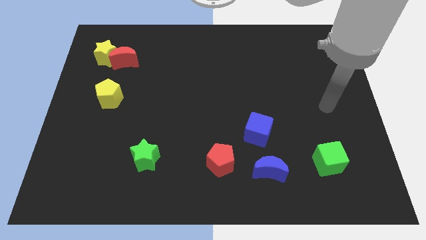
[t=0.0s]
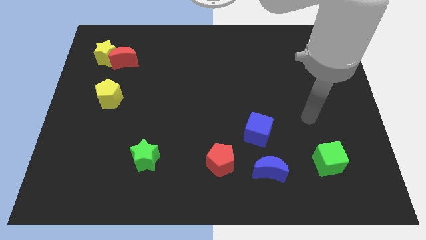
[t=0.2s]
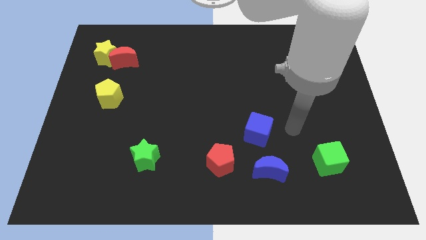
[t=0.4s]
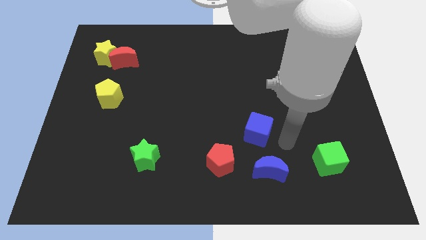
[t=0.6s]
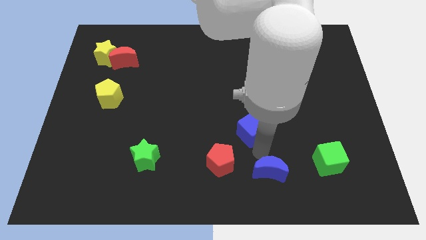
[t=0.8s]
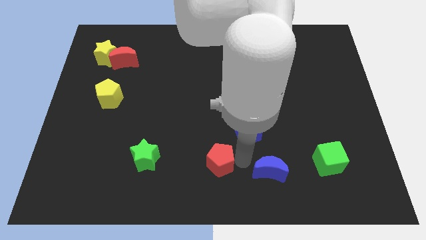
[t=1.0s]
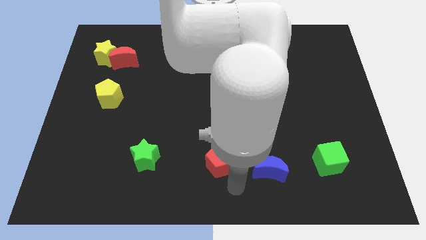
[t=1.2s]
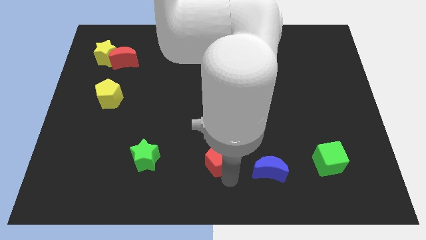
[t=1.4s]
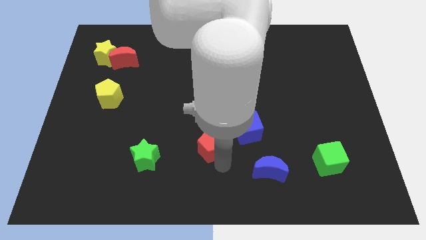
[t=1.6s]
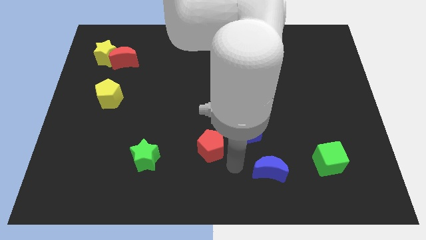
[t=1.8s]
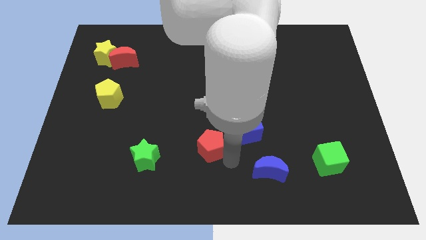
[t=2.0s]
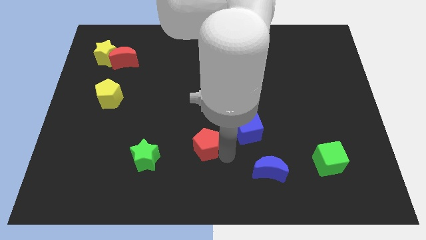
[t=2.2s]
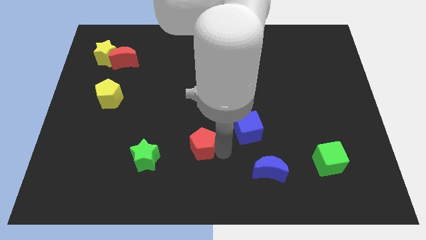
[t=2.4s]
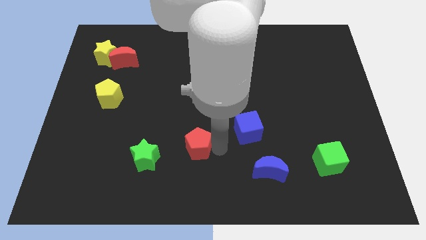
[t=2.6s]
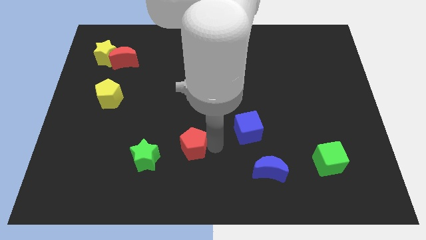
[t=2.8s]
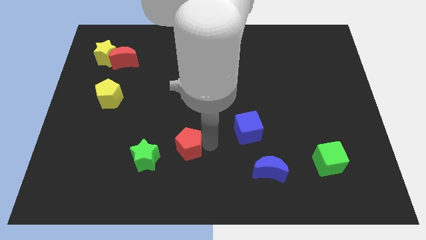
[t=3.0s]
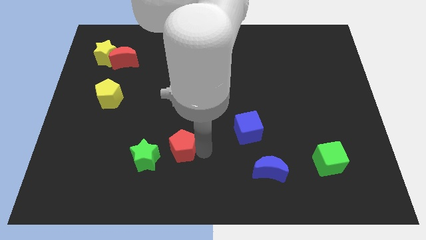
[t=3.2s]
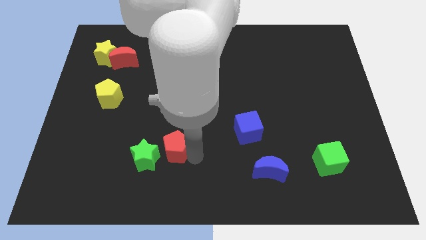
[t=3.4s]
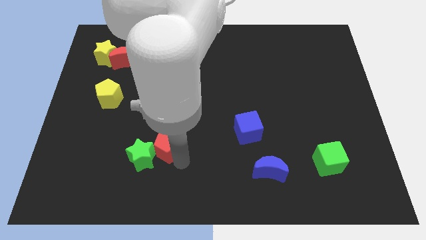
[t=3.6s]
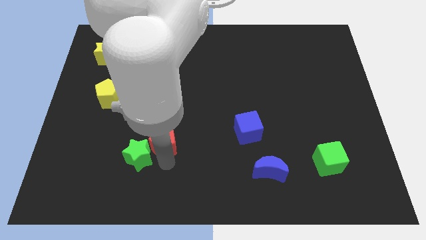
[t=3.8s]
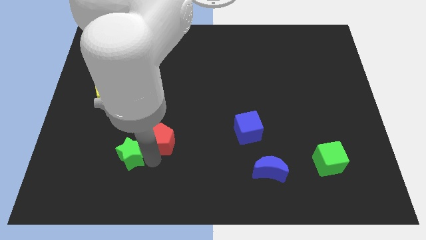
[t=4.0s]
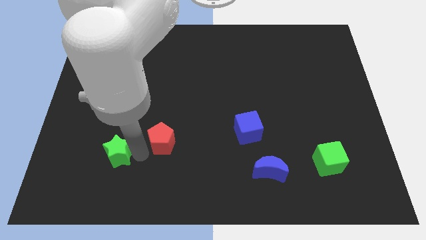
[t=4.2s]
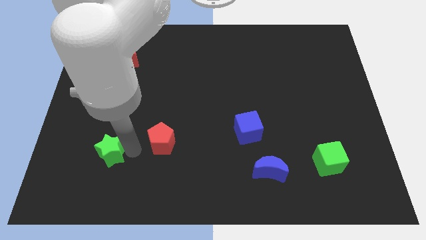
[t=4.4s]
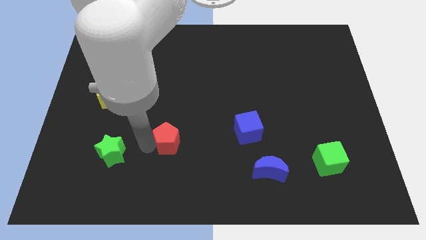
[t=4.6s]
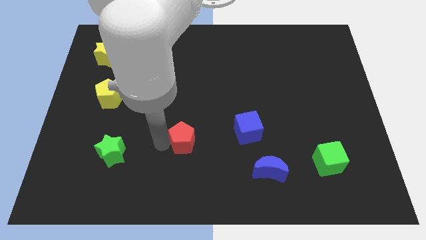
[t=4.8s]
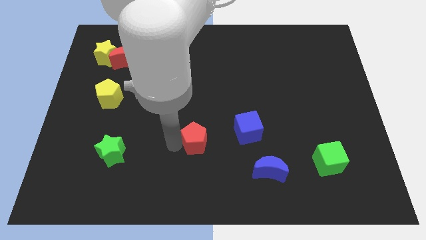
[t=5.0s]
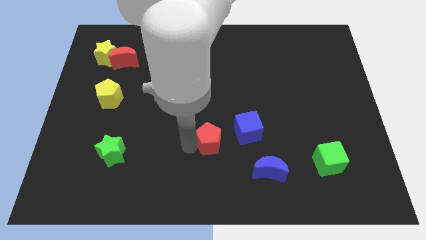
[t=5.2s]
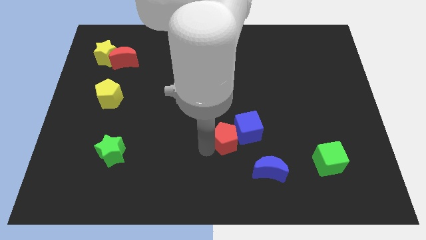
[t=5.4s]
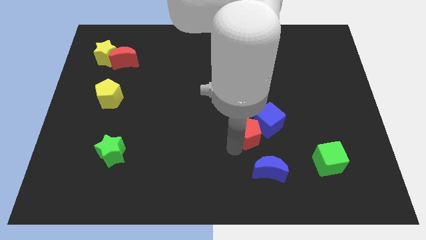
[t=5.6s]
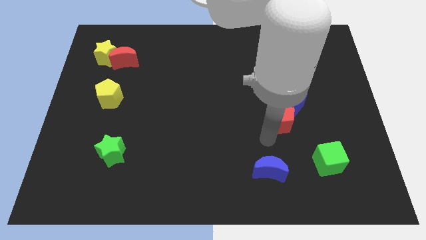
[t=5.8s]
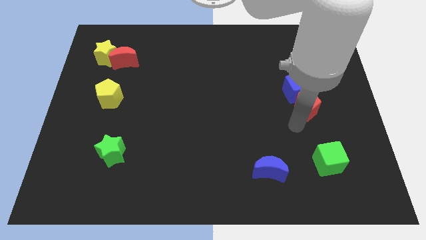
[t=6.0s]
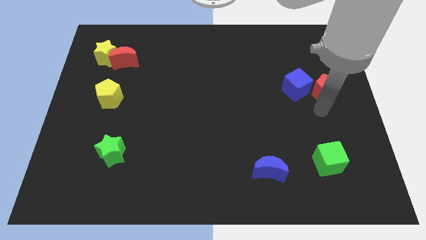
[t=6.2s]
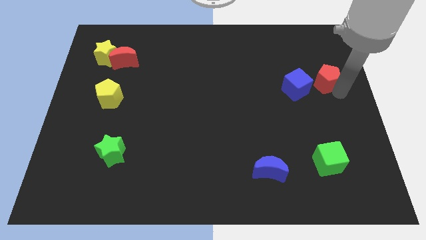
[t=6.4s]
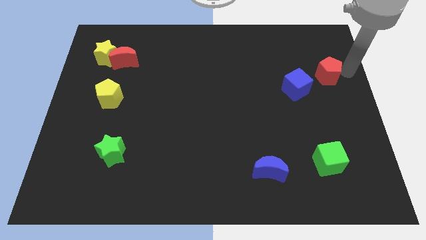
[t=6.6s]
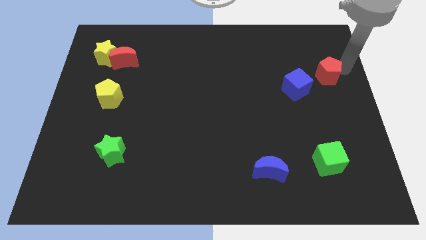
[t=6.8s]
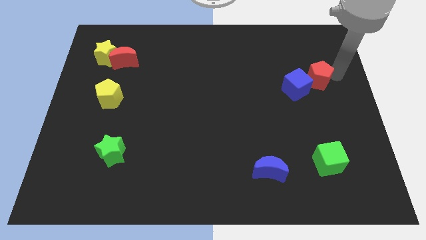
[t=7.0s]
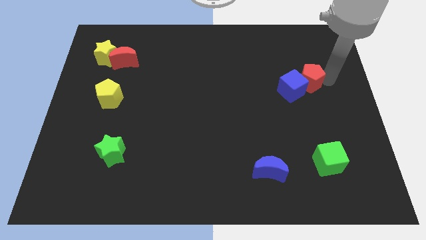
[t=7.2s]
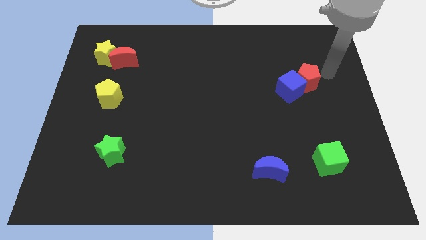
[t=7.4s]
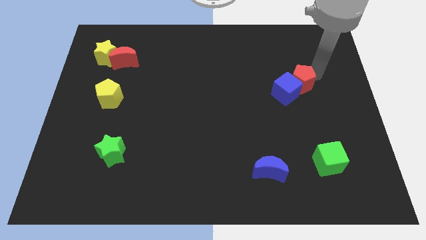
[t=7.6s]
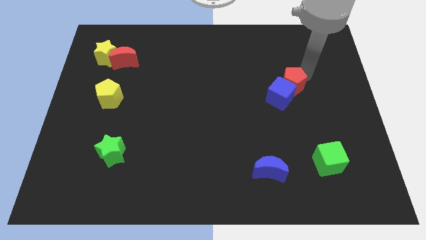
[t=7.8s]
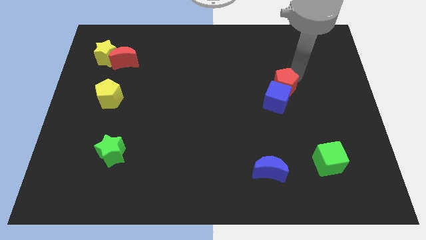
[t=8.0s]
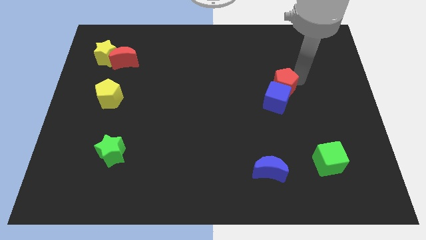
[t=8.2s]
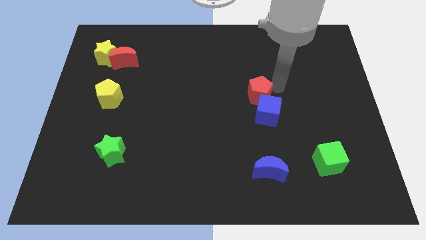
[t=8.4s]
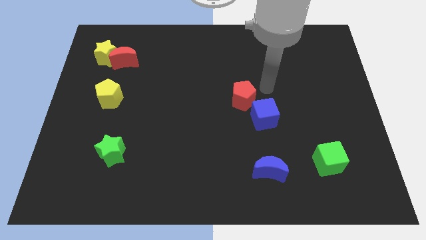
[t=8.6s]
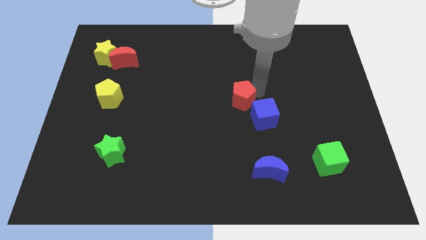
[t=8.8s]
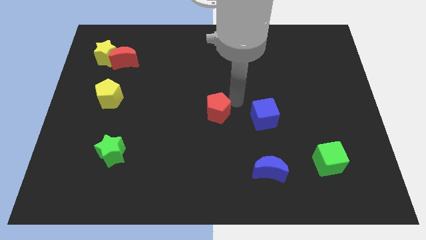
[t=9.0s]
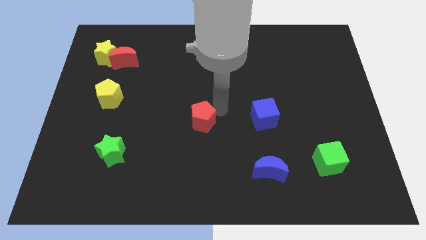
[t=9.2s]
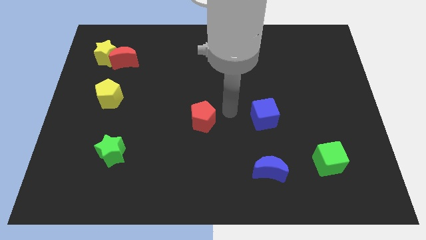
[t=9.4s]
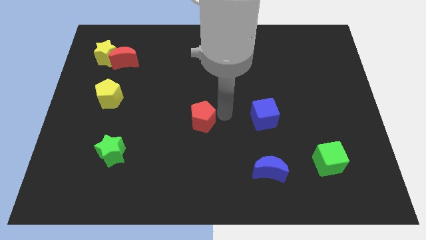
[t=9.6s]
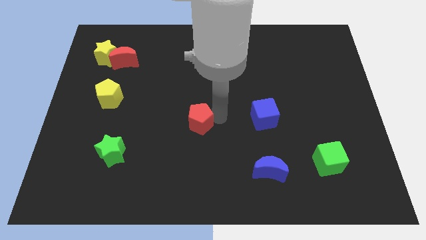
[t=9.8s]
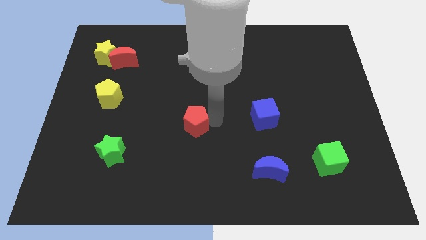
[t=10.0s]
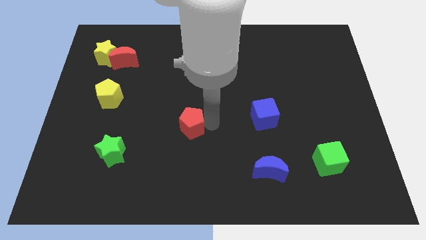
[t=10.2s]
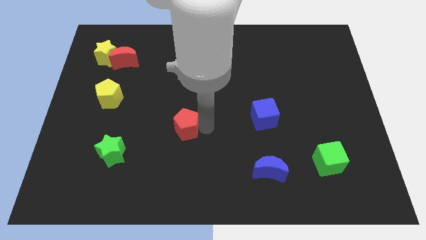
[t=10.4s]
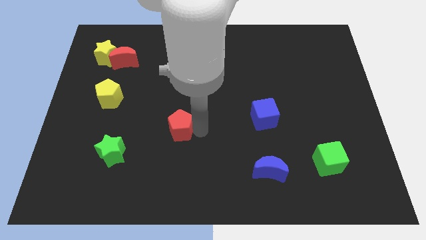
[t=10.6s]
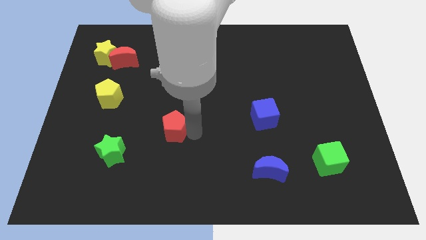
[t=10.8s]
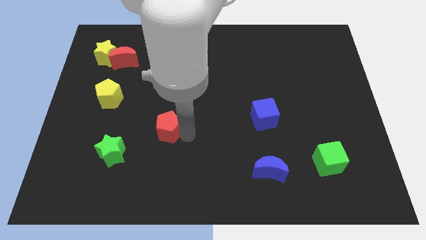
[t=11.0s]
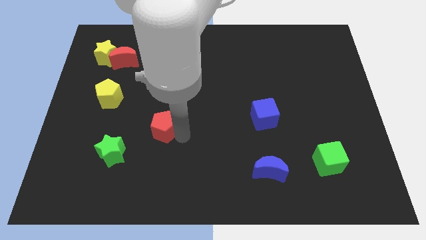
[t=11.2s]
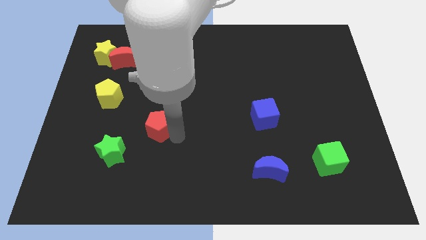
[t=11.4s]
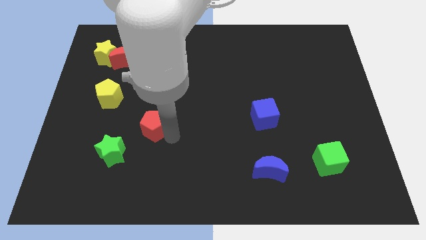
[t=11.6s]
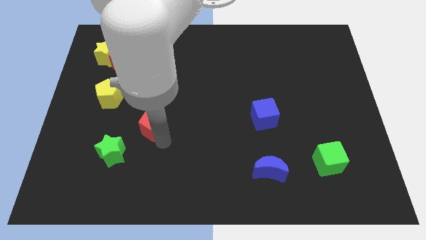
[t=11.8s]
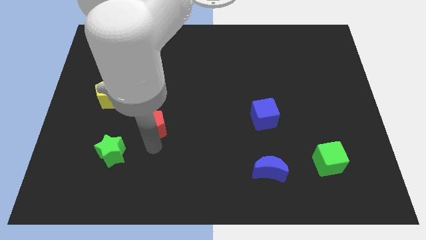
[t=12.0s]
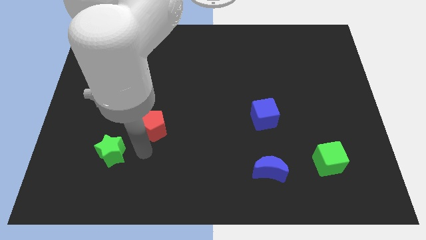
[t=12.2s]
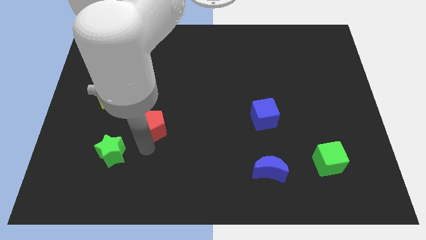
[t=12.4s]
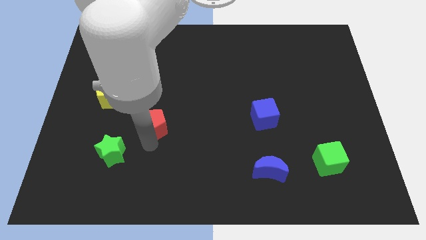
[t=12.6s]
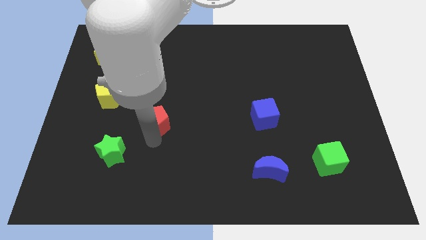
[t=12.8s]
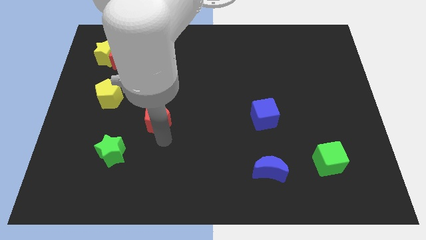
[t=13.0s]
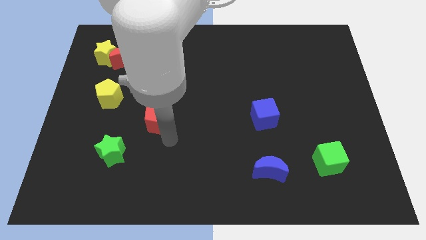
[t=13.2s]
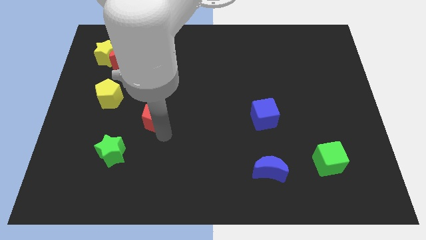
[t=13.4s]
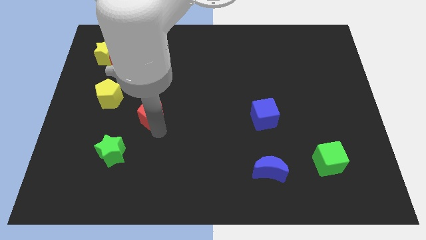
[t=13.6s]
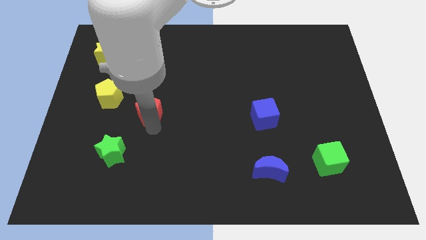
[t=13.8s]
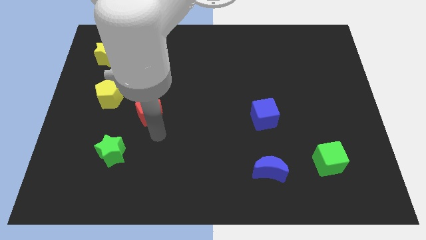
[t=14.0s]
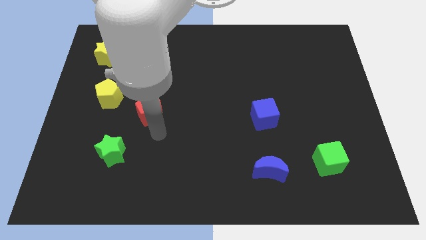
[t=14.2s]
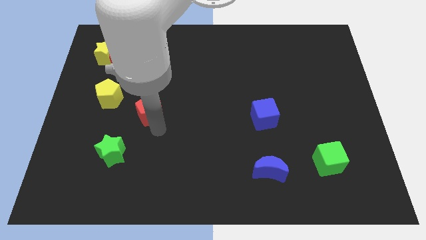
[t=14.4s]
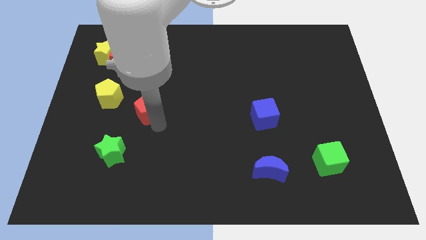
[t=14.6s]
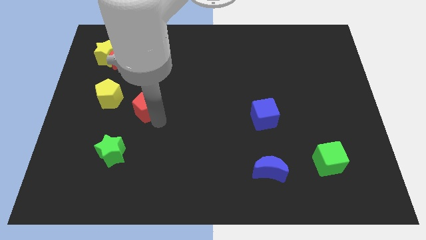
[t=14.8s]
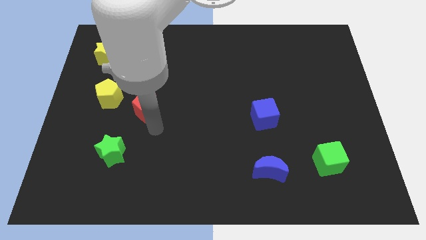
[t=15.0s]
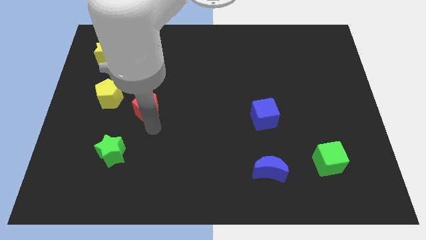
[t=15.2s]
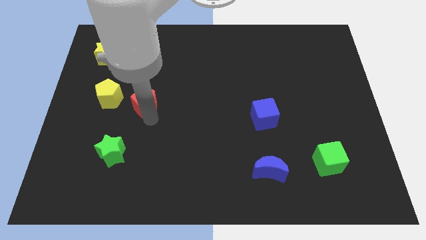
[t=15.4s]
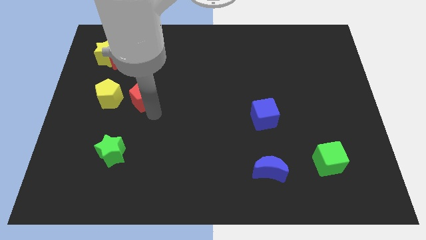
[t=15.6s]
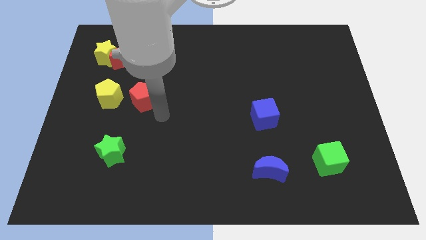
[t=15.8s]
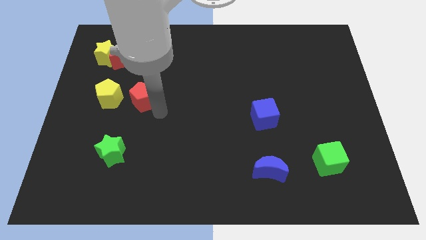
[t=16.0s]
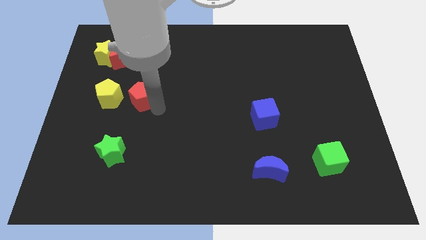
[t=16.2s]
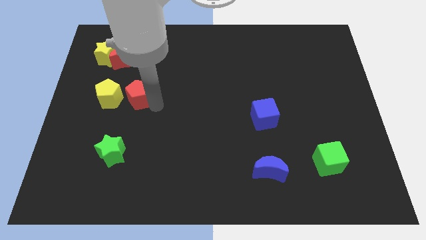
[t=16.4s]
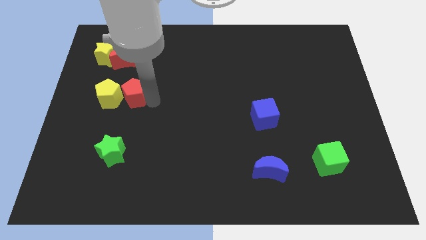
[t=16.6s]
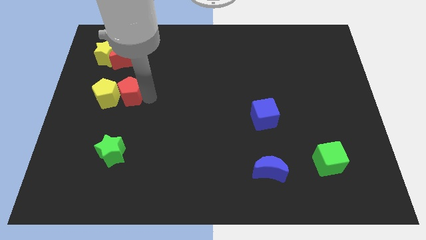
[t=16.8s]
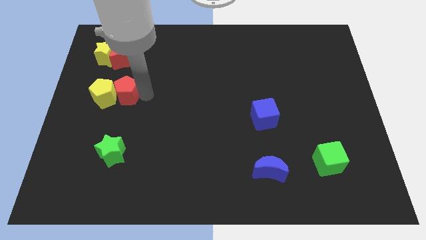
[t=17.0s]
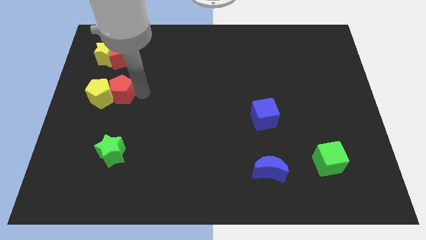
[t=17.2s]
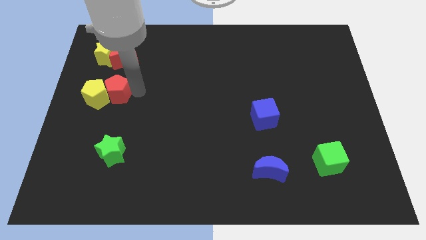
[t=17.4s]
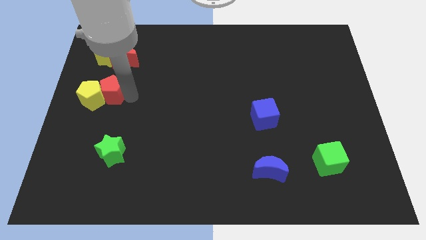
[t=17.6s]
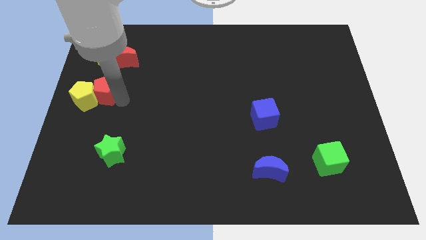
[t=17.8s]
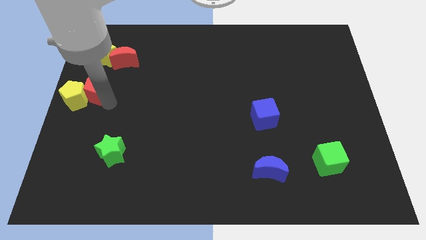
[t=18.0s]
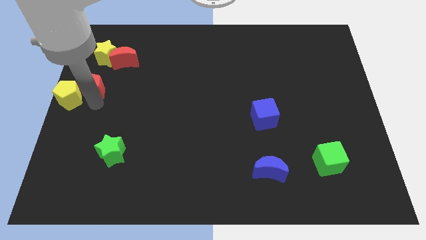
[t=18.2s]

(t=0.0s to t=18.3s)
push the red pentagon diagonally down and to the left of the red moon
